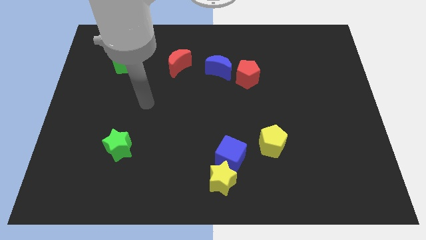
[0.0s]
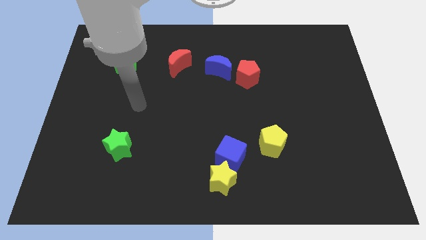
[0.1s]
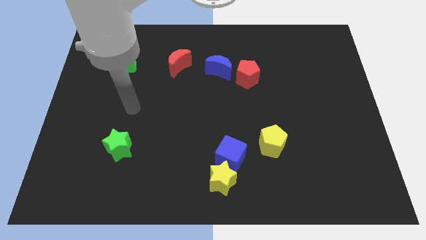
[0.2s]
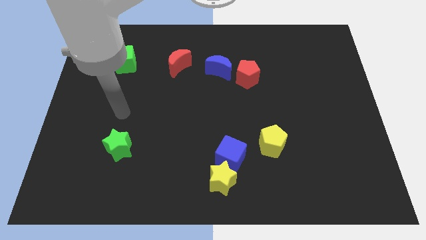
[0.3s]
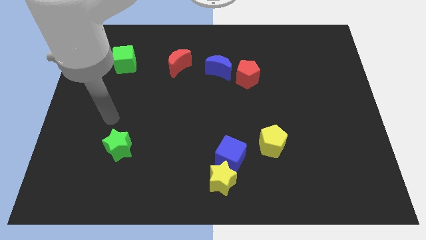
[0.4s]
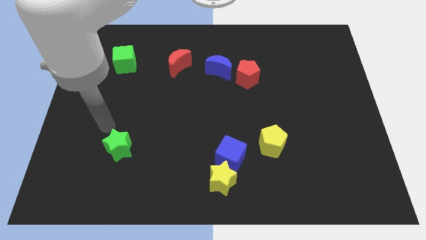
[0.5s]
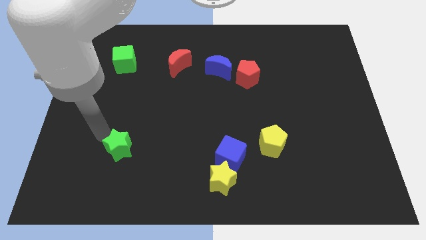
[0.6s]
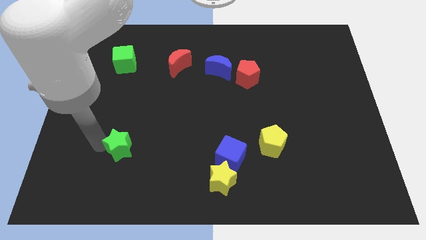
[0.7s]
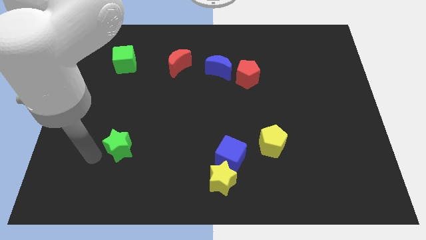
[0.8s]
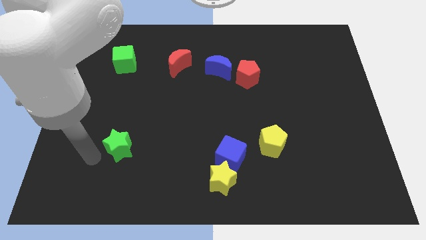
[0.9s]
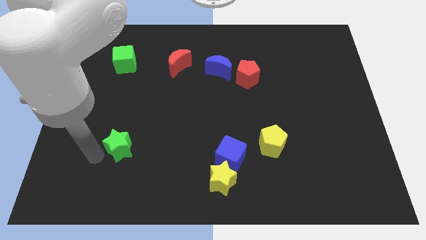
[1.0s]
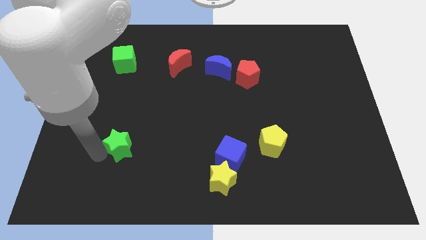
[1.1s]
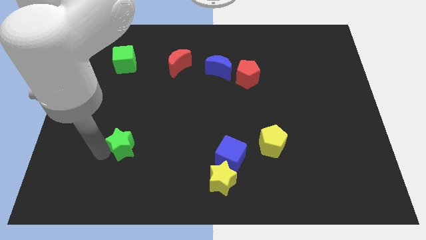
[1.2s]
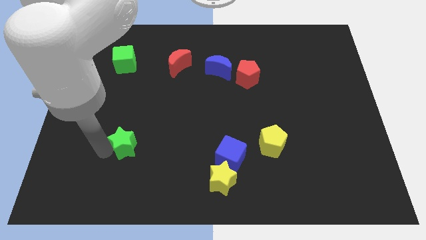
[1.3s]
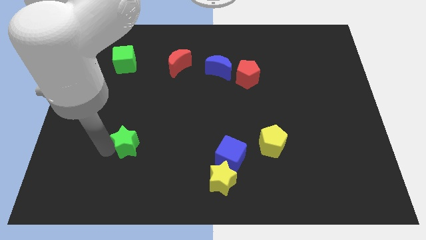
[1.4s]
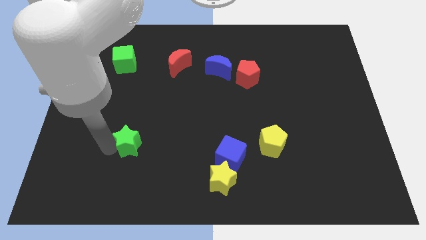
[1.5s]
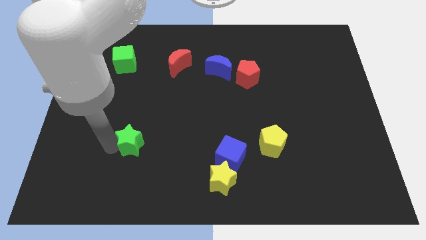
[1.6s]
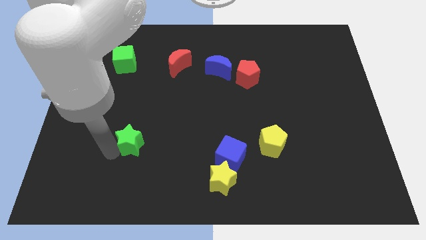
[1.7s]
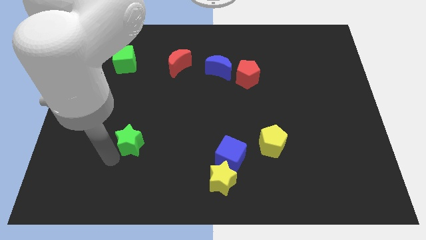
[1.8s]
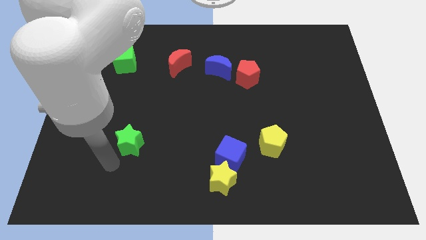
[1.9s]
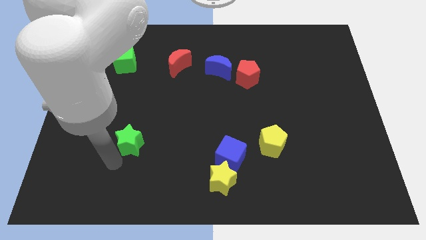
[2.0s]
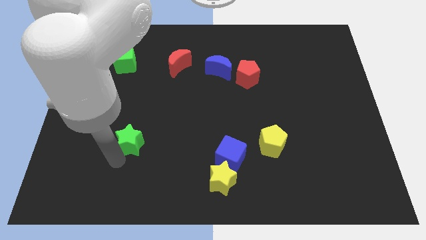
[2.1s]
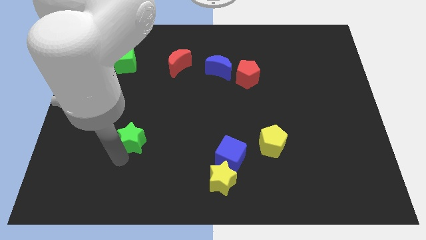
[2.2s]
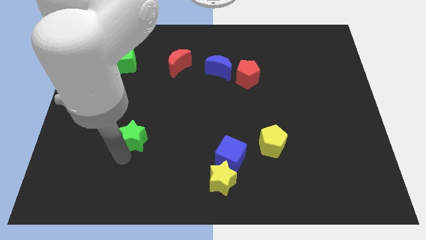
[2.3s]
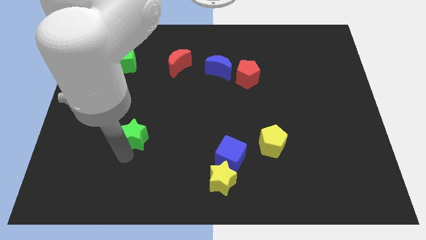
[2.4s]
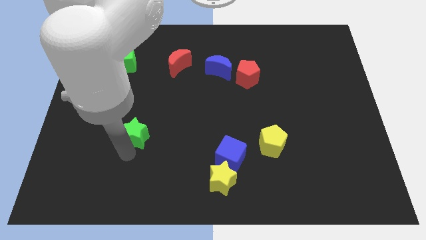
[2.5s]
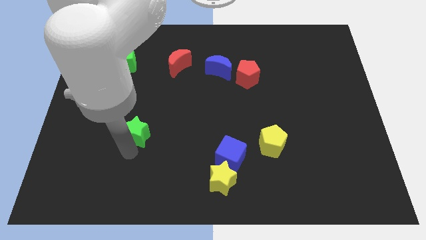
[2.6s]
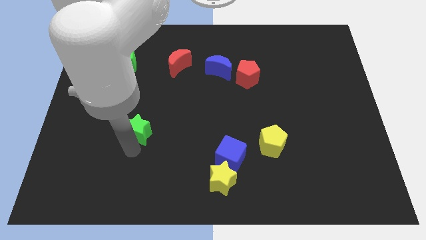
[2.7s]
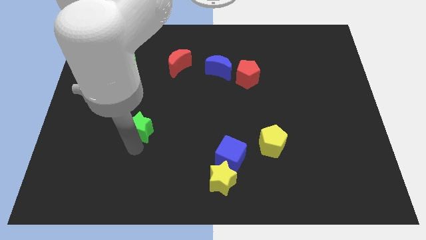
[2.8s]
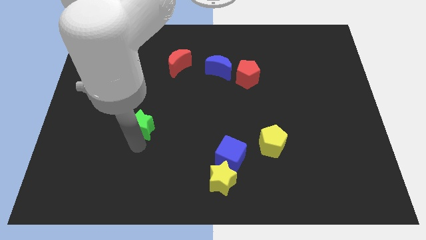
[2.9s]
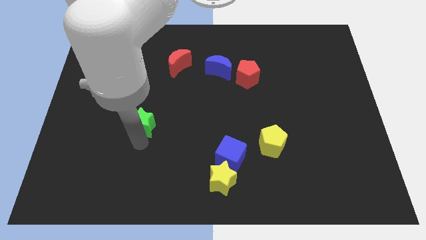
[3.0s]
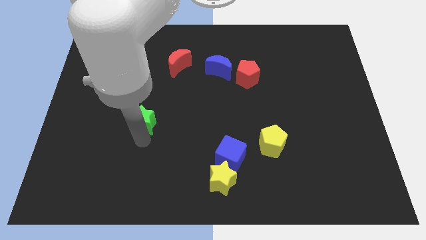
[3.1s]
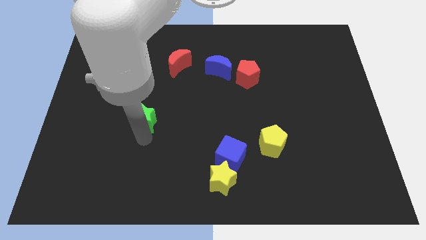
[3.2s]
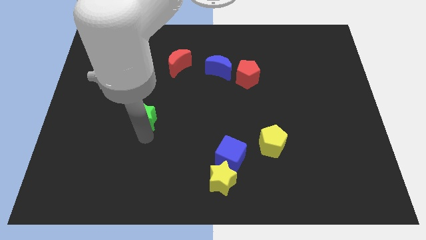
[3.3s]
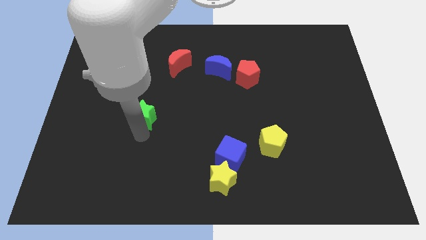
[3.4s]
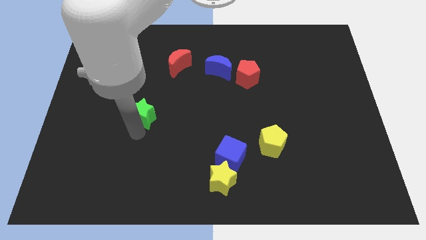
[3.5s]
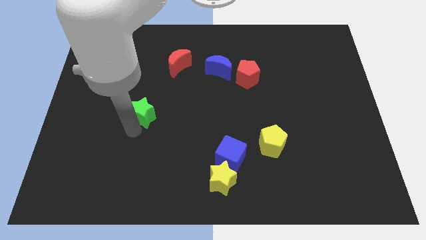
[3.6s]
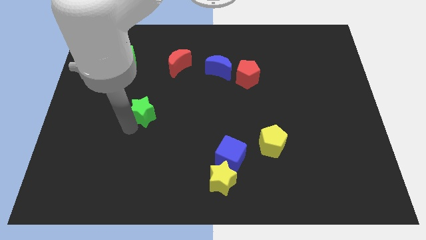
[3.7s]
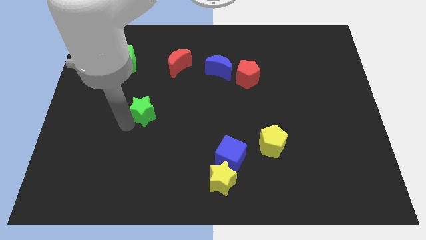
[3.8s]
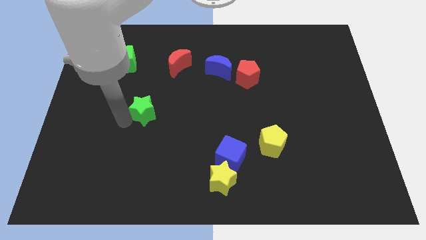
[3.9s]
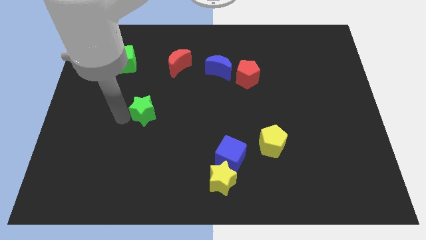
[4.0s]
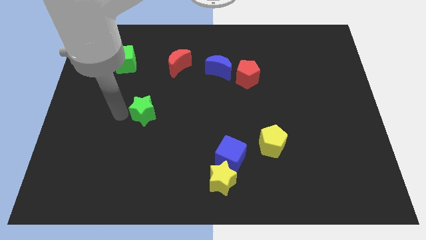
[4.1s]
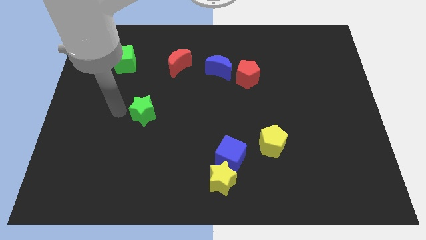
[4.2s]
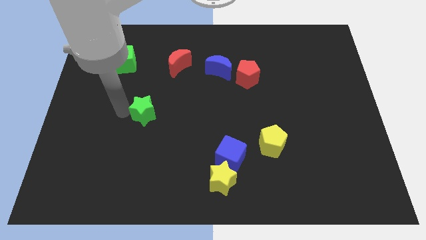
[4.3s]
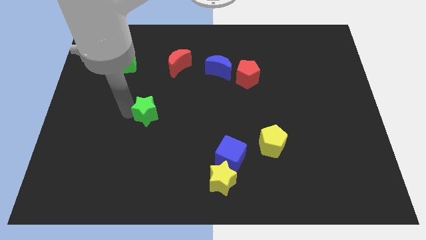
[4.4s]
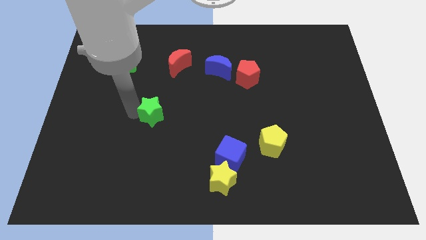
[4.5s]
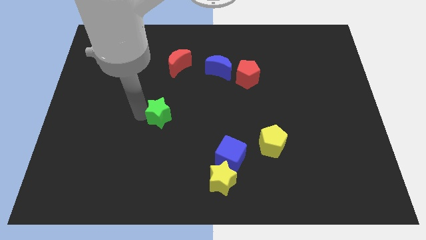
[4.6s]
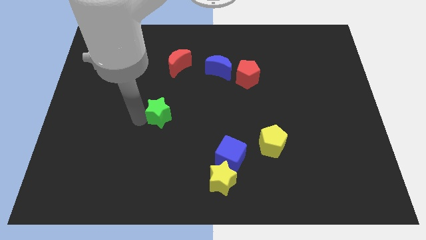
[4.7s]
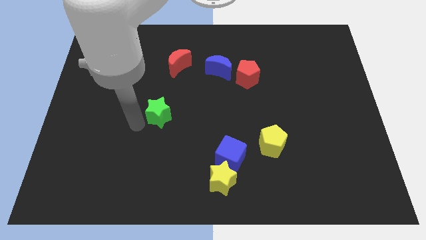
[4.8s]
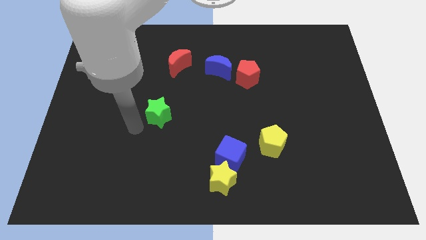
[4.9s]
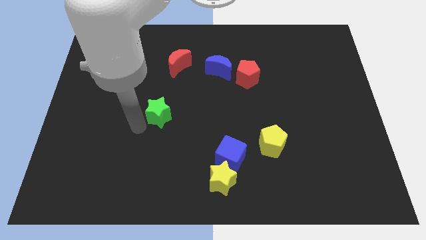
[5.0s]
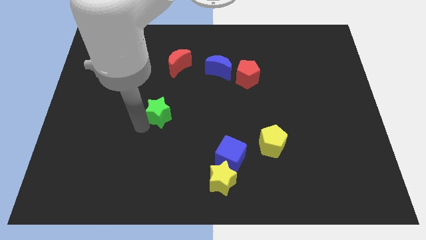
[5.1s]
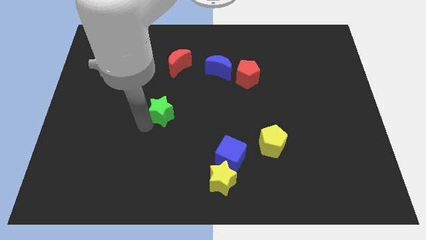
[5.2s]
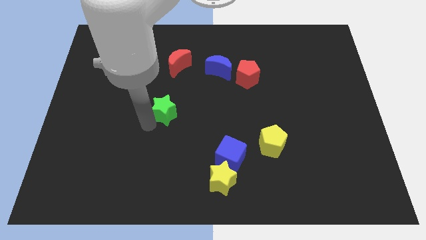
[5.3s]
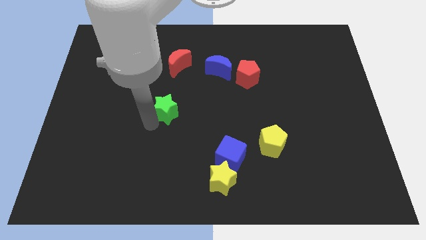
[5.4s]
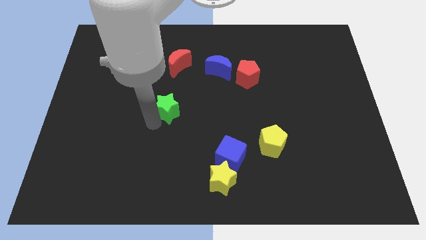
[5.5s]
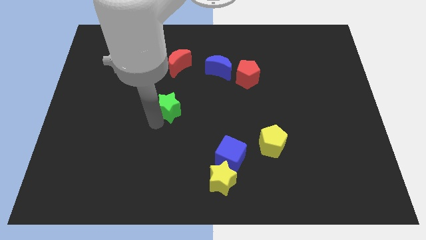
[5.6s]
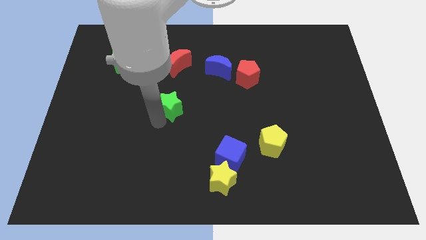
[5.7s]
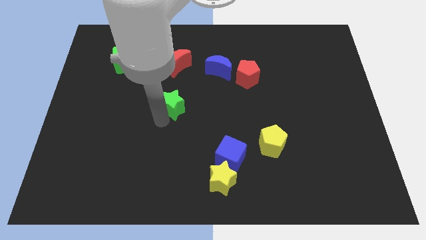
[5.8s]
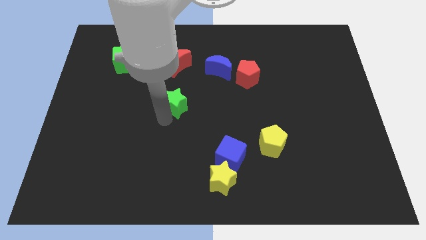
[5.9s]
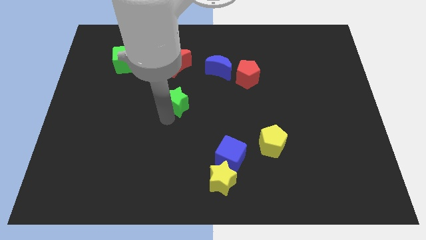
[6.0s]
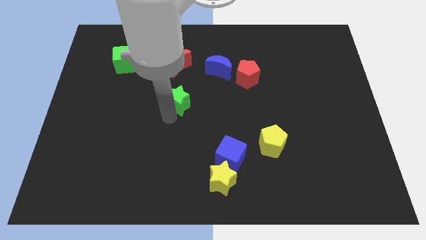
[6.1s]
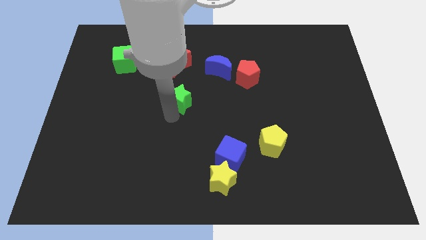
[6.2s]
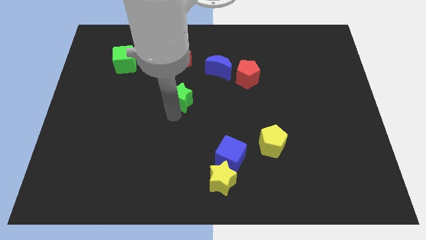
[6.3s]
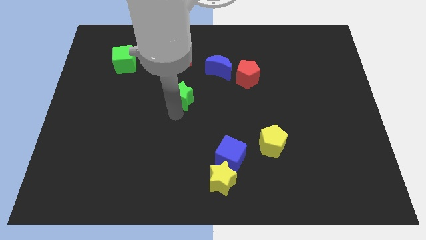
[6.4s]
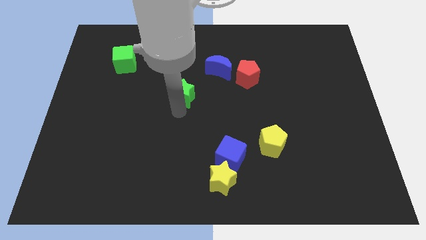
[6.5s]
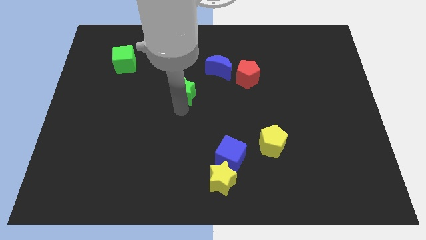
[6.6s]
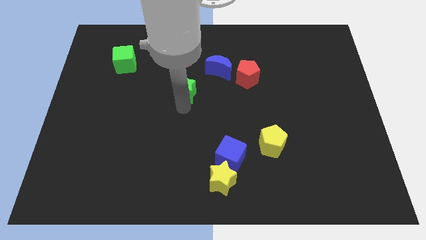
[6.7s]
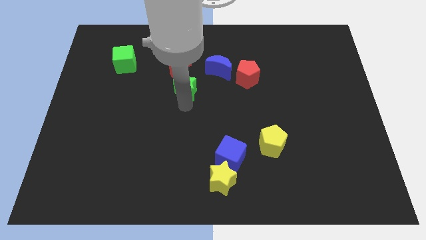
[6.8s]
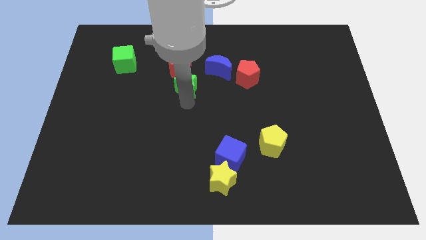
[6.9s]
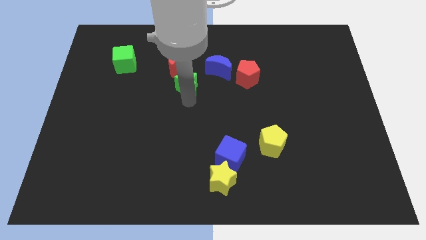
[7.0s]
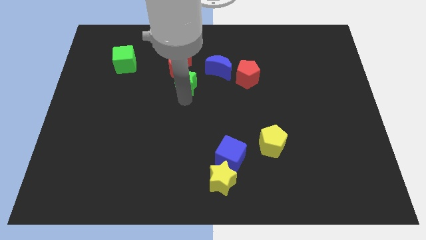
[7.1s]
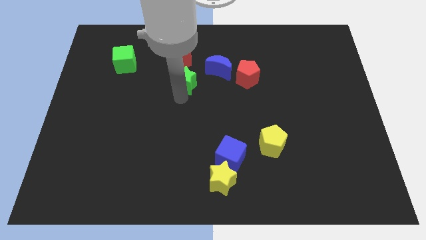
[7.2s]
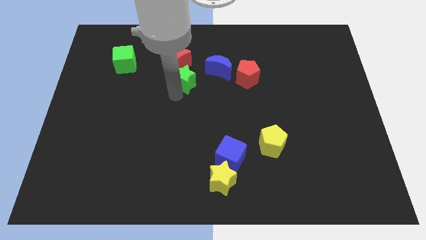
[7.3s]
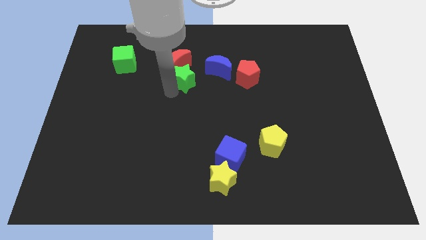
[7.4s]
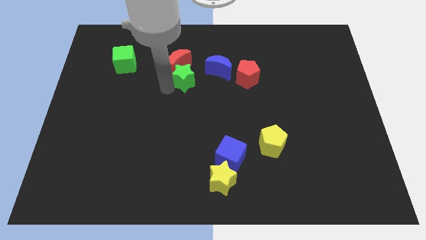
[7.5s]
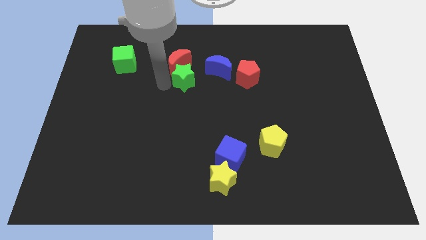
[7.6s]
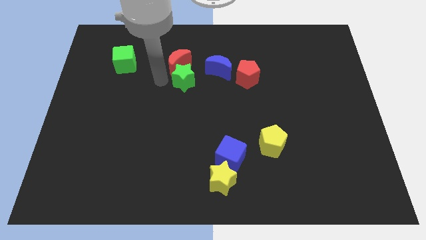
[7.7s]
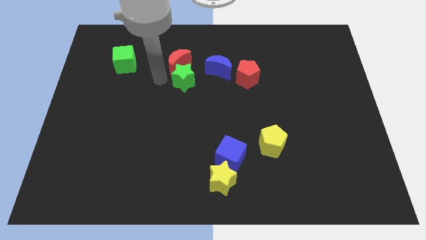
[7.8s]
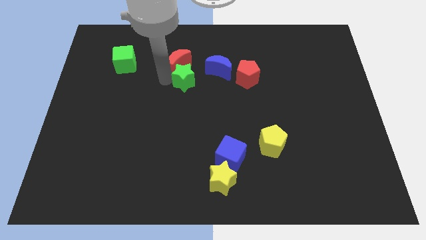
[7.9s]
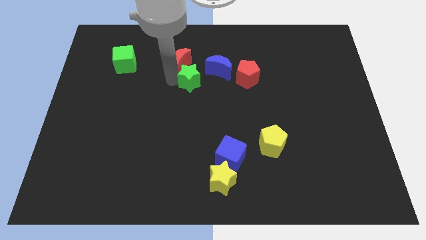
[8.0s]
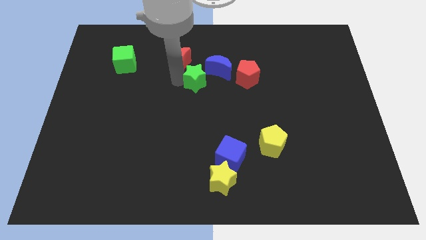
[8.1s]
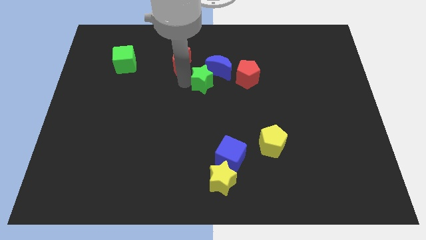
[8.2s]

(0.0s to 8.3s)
push the green star towards the blue moon
